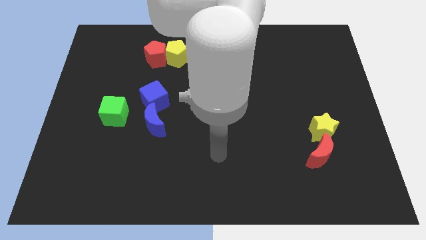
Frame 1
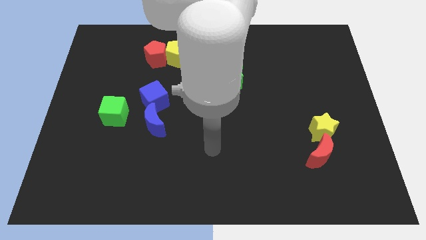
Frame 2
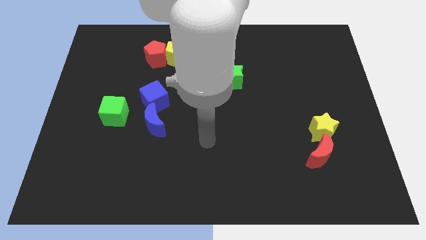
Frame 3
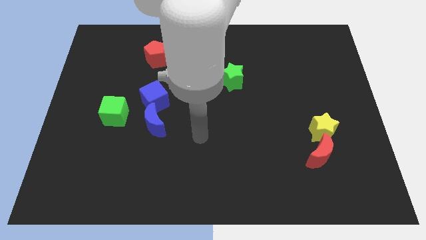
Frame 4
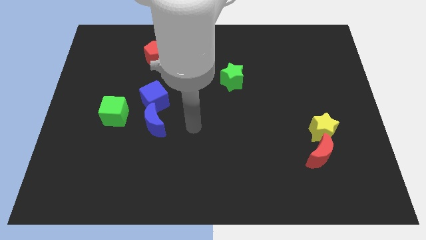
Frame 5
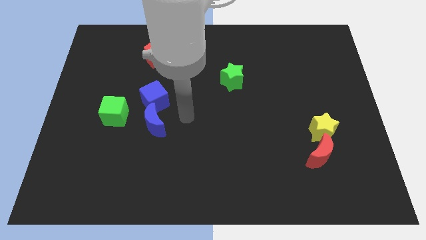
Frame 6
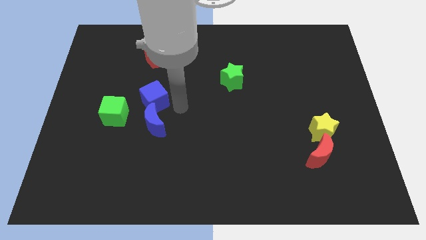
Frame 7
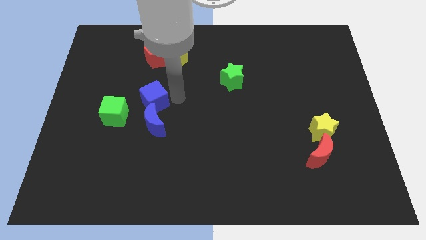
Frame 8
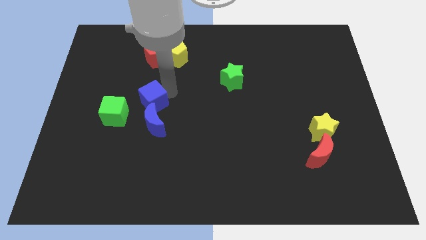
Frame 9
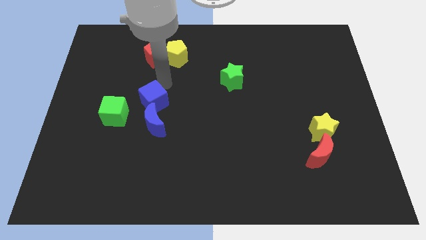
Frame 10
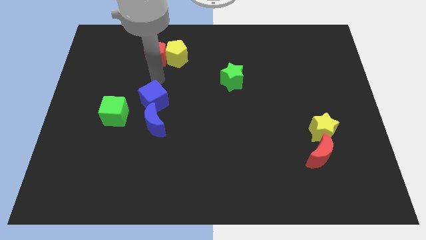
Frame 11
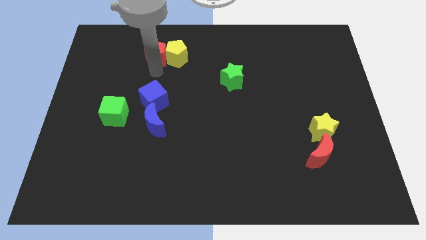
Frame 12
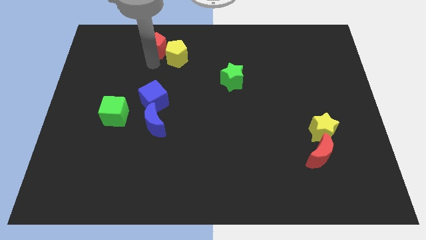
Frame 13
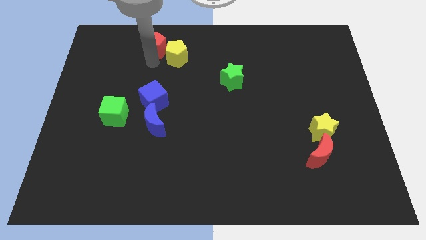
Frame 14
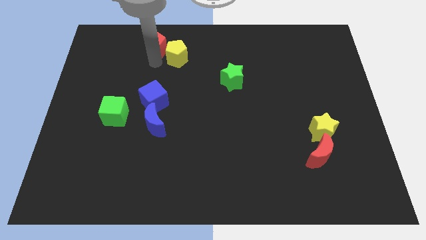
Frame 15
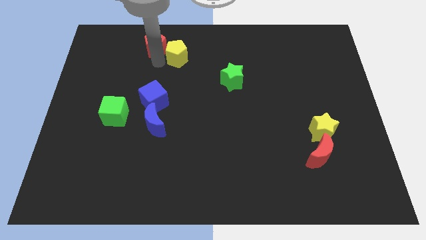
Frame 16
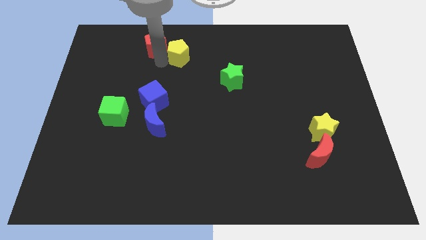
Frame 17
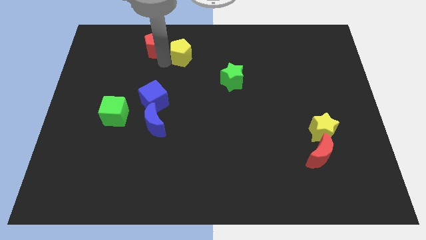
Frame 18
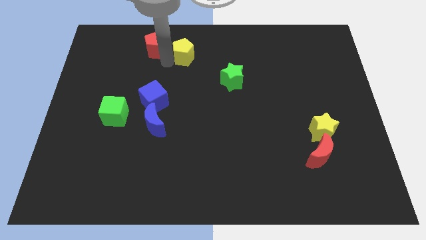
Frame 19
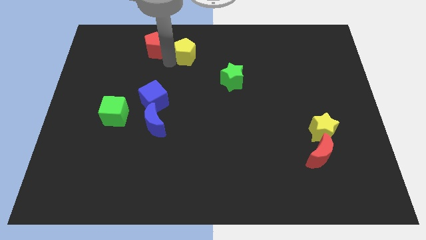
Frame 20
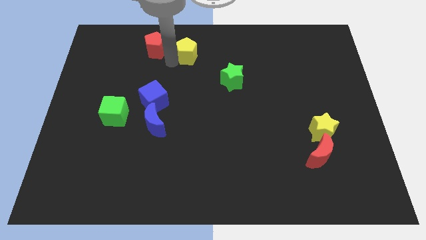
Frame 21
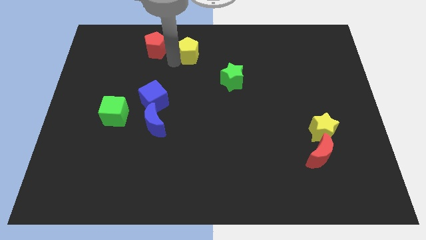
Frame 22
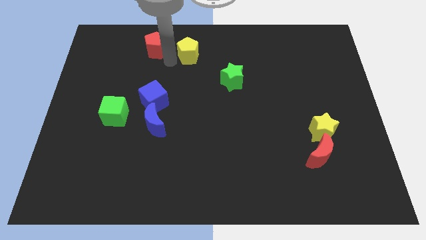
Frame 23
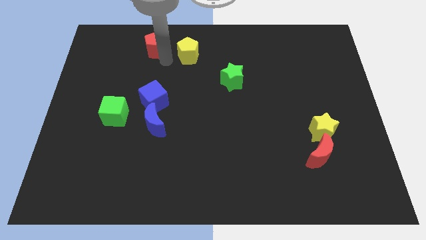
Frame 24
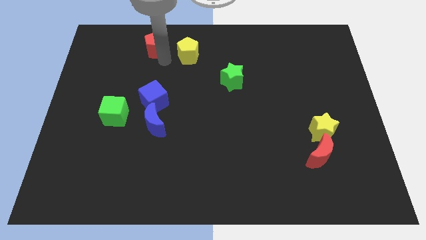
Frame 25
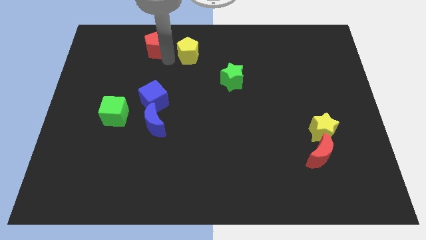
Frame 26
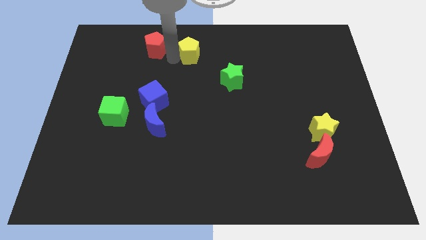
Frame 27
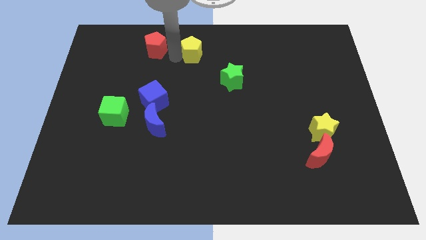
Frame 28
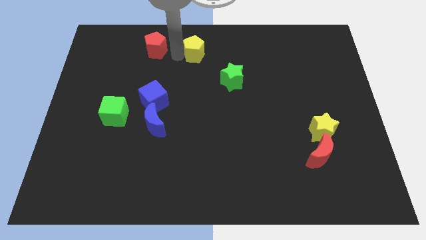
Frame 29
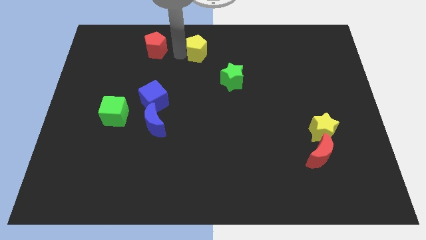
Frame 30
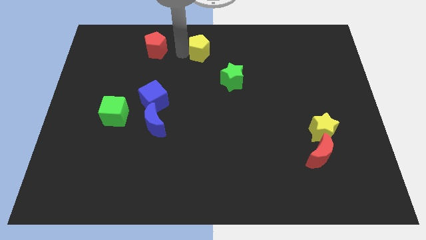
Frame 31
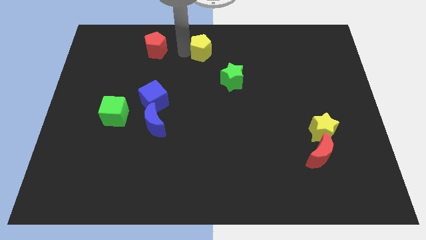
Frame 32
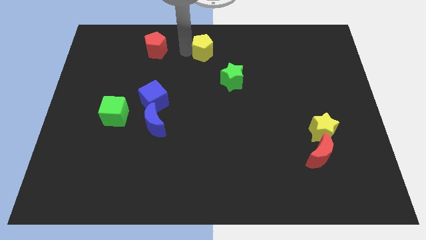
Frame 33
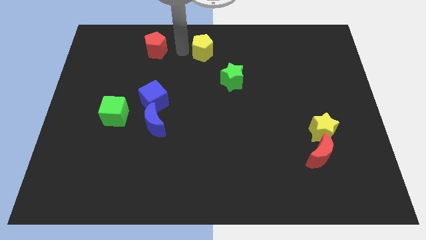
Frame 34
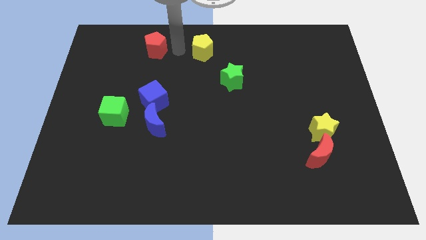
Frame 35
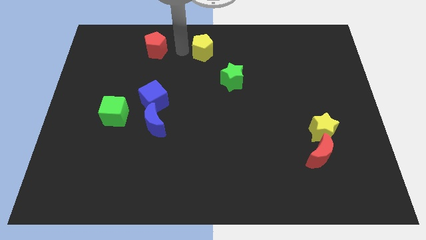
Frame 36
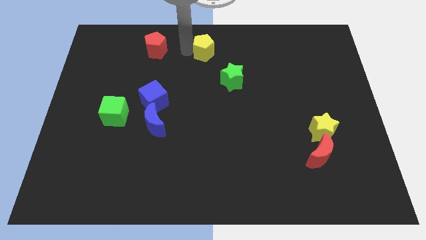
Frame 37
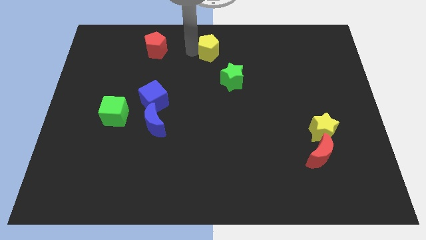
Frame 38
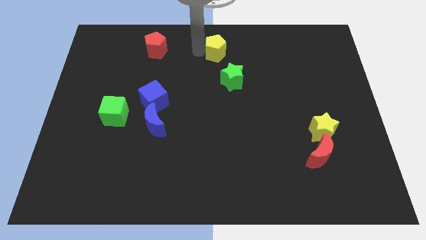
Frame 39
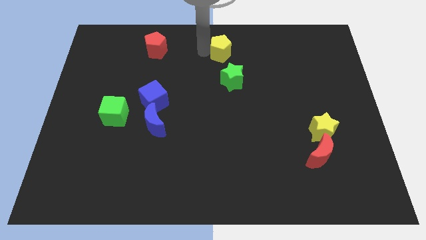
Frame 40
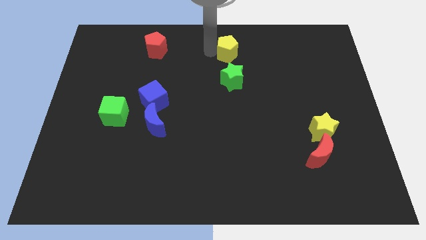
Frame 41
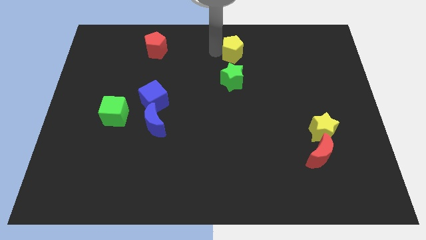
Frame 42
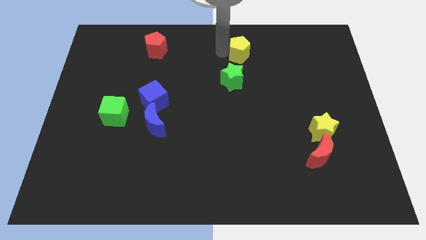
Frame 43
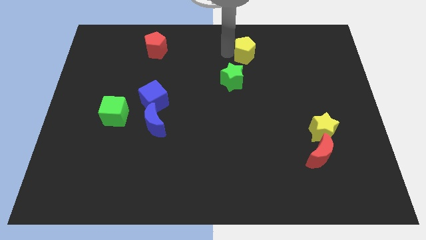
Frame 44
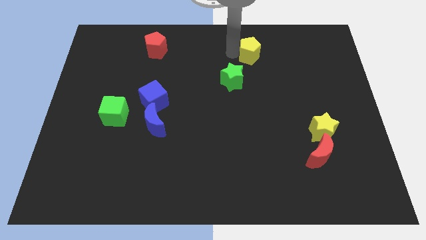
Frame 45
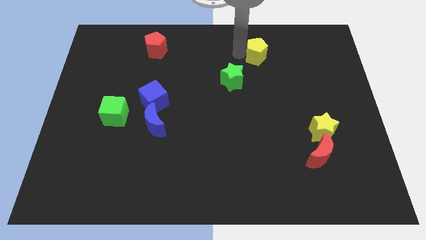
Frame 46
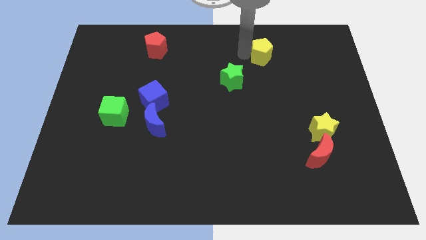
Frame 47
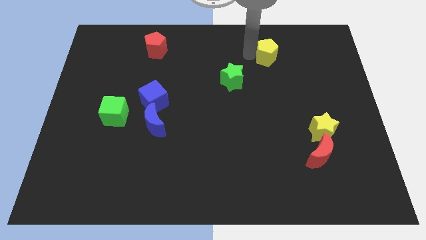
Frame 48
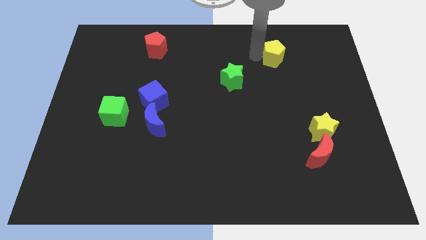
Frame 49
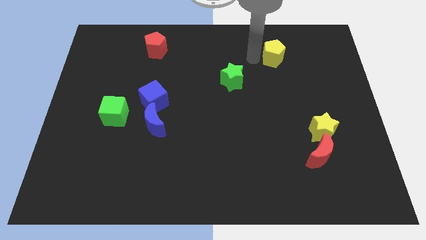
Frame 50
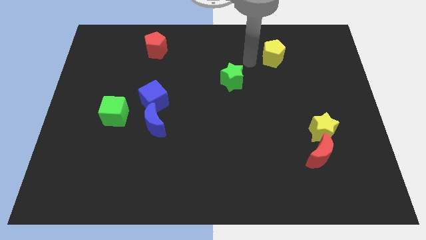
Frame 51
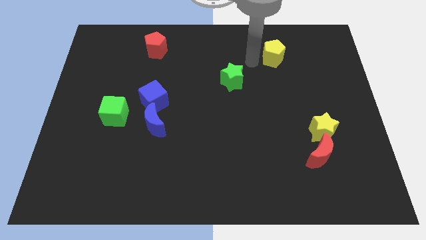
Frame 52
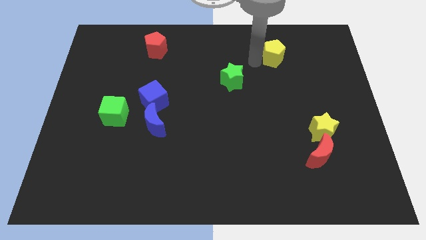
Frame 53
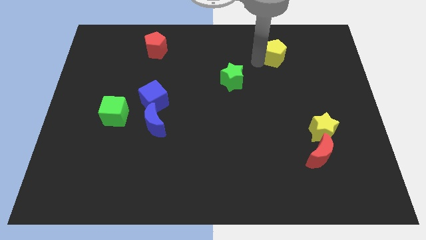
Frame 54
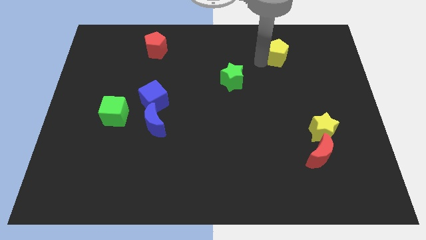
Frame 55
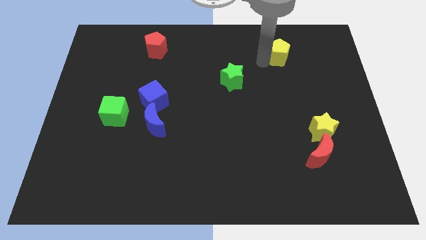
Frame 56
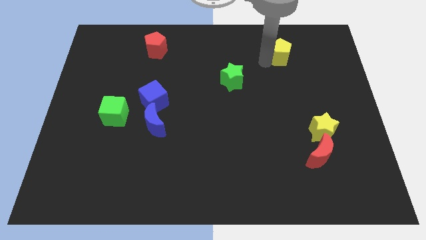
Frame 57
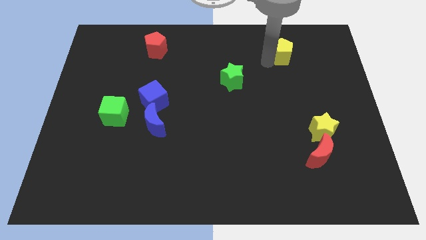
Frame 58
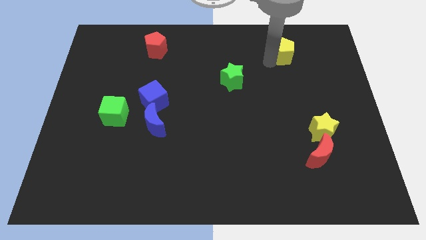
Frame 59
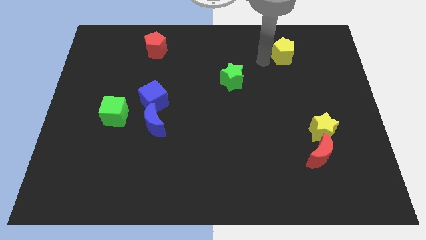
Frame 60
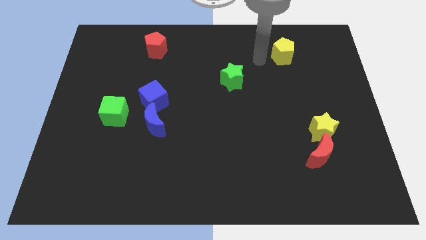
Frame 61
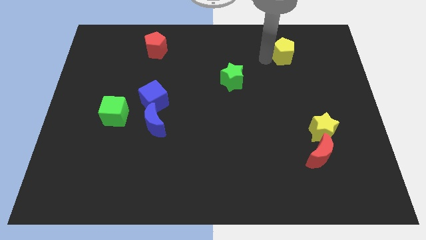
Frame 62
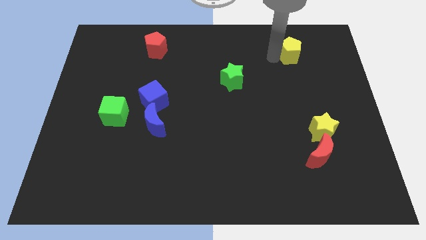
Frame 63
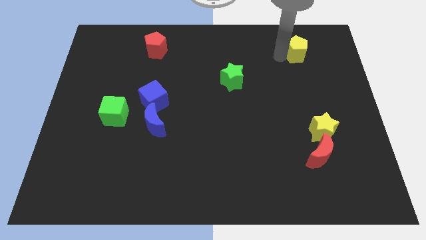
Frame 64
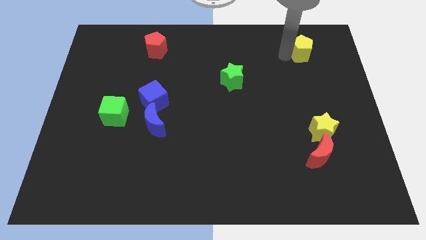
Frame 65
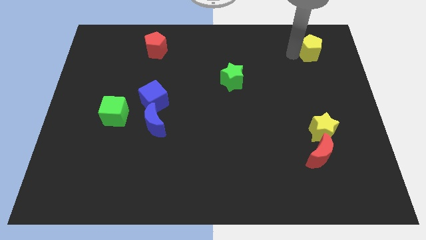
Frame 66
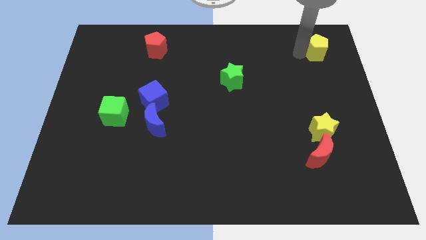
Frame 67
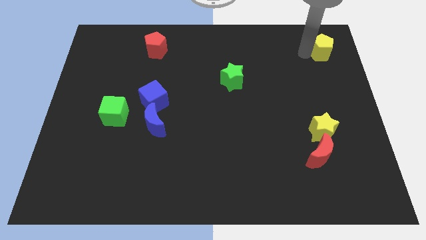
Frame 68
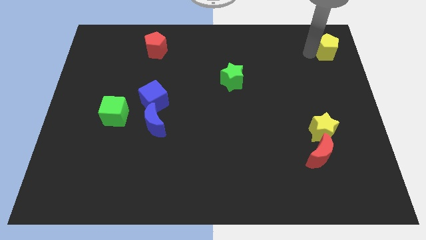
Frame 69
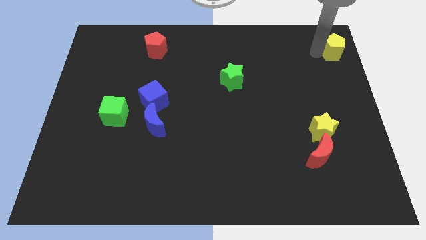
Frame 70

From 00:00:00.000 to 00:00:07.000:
push the yellow pentagon to the top right corner
